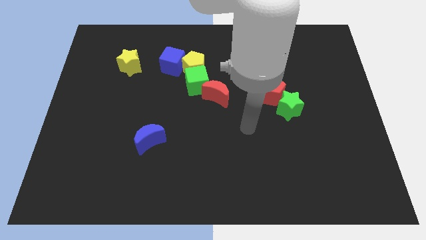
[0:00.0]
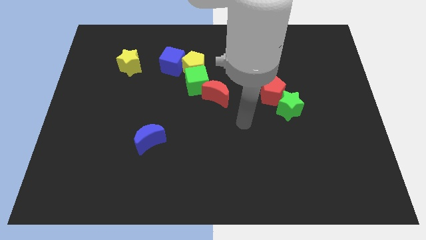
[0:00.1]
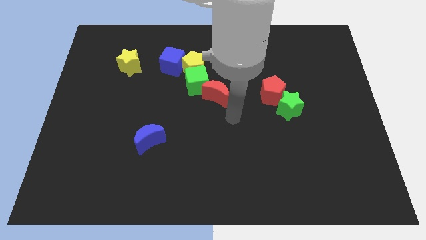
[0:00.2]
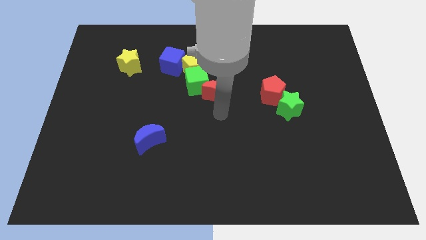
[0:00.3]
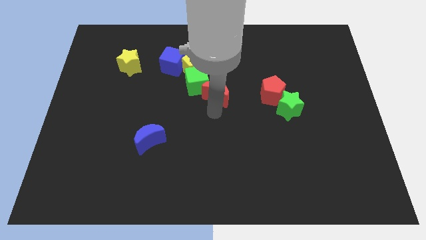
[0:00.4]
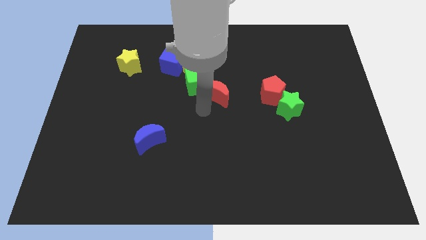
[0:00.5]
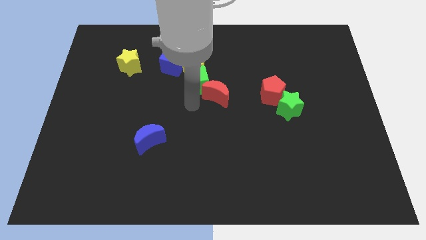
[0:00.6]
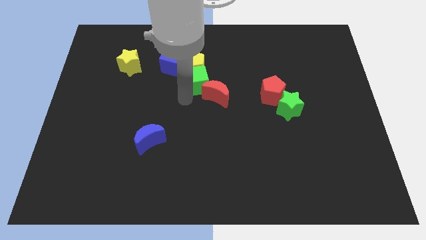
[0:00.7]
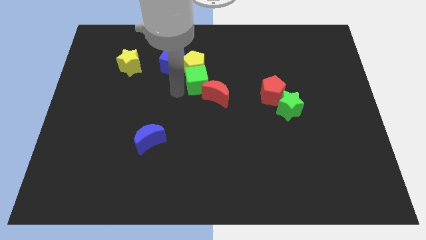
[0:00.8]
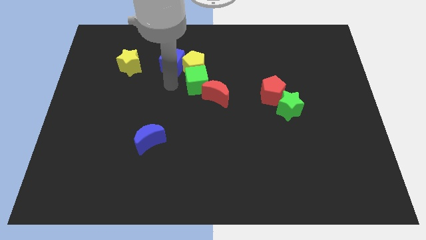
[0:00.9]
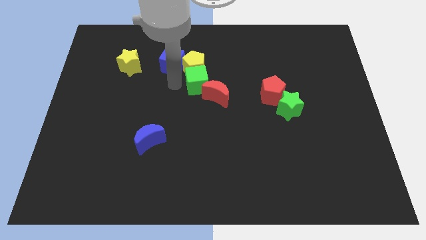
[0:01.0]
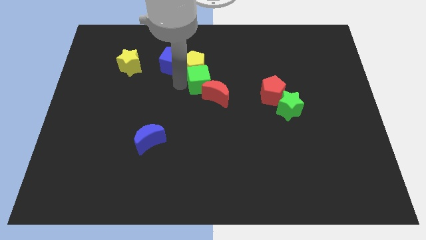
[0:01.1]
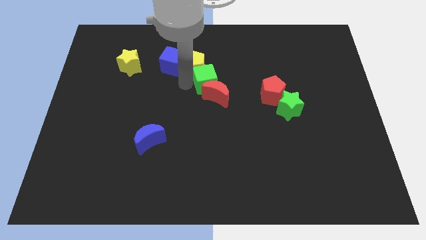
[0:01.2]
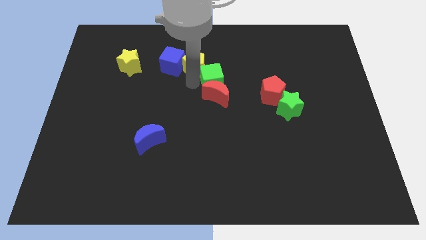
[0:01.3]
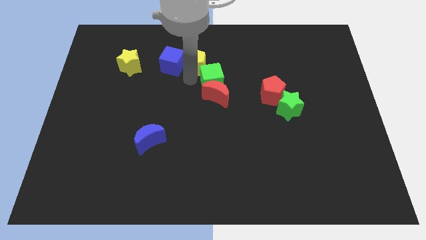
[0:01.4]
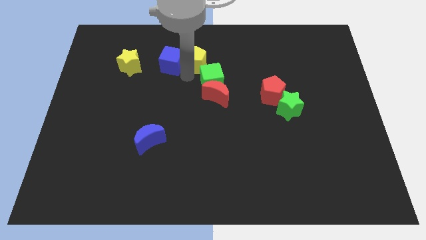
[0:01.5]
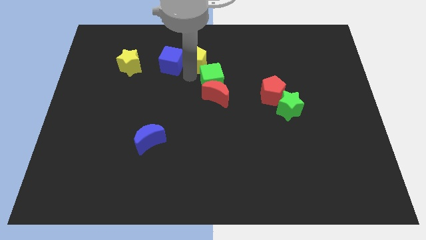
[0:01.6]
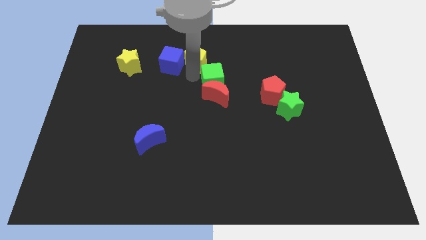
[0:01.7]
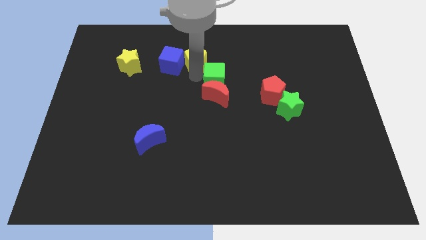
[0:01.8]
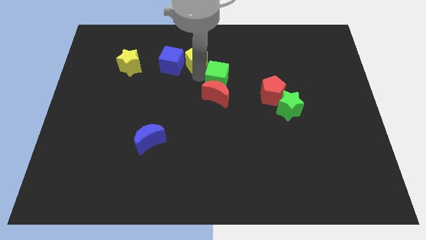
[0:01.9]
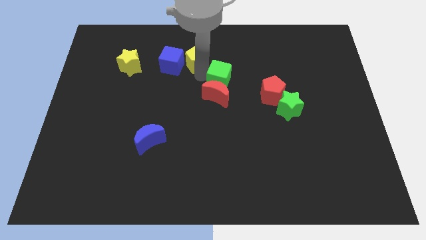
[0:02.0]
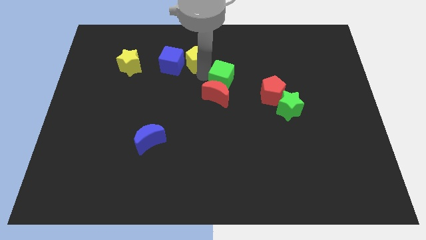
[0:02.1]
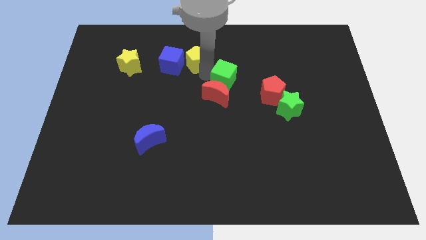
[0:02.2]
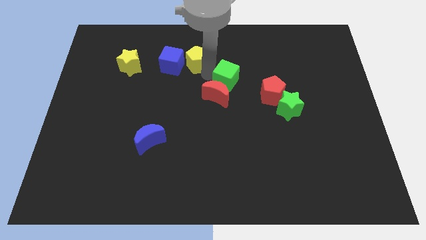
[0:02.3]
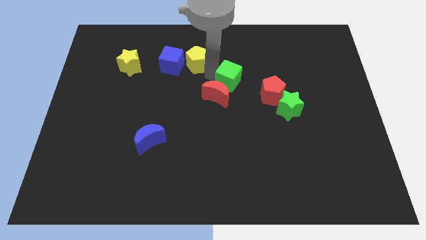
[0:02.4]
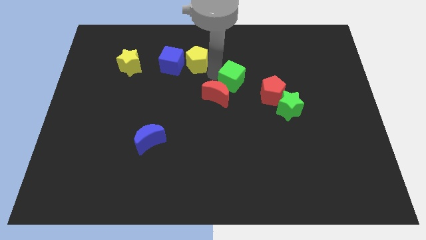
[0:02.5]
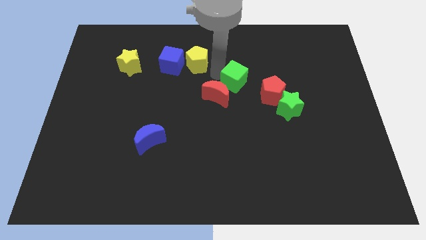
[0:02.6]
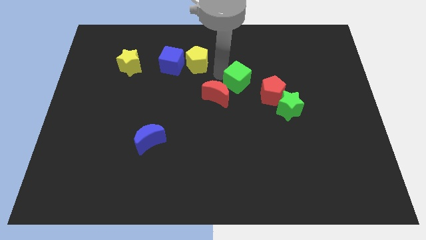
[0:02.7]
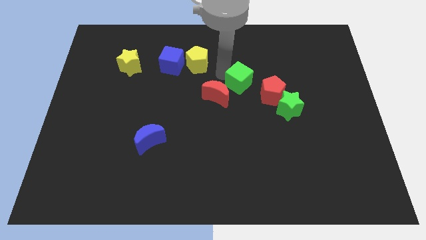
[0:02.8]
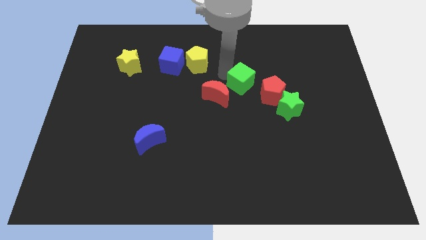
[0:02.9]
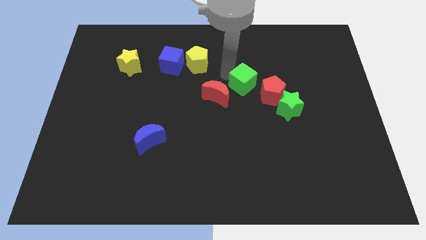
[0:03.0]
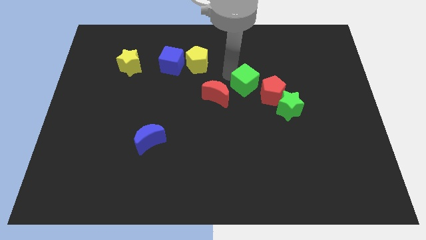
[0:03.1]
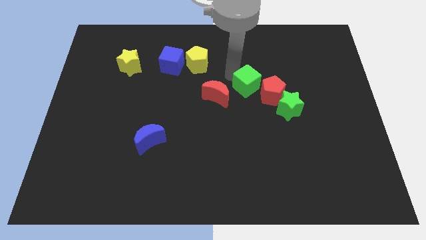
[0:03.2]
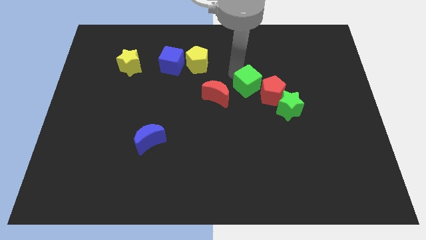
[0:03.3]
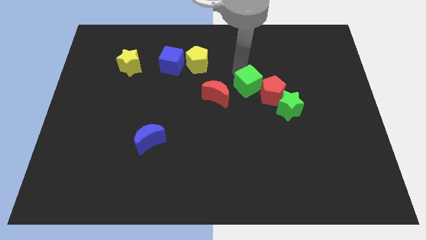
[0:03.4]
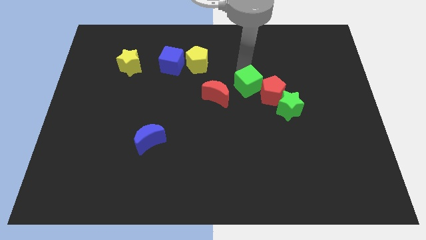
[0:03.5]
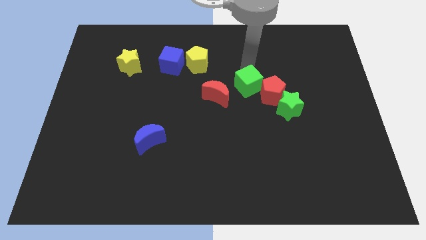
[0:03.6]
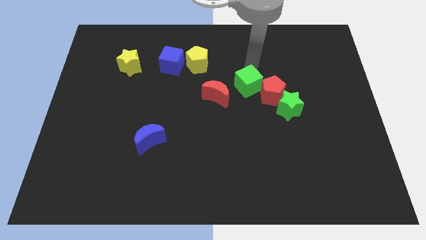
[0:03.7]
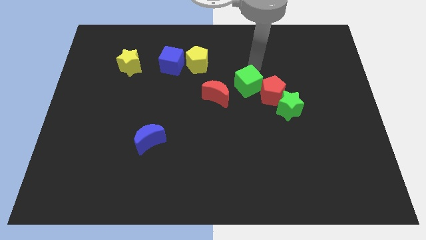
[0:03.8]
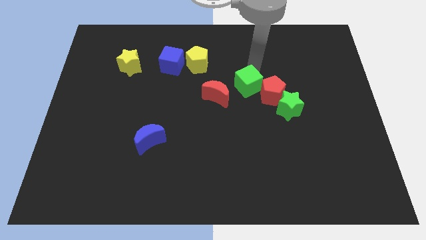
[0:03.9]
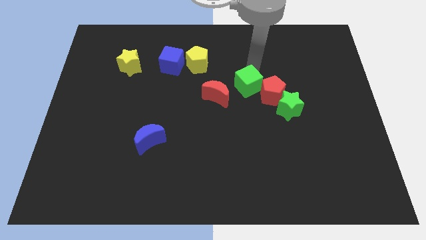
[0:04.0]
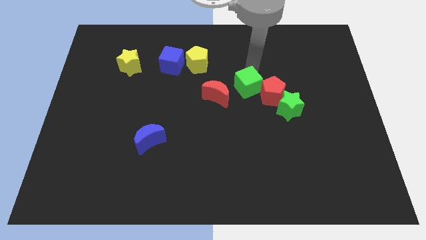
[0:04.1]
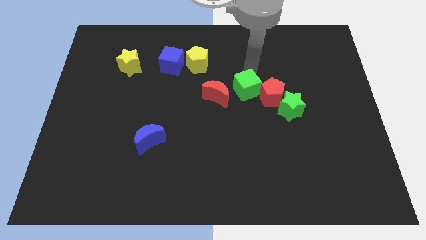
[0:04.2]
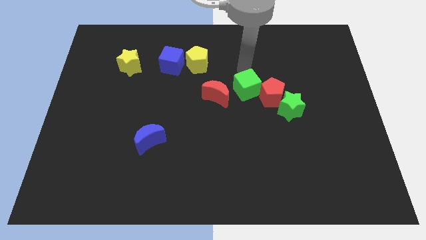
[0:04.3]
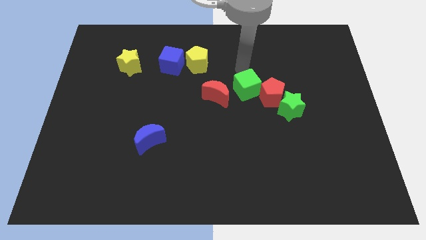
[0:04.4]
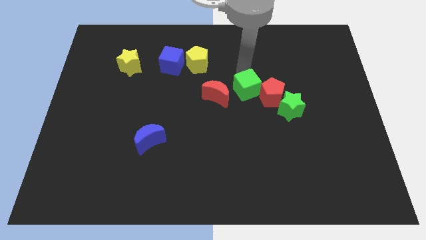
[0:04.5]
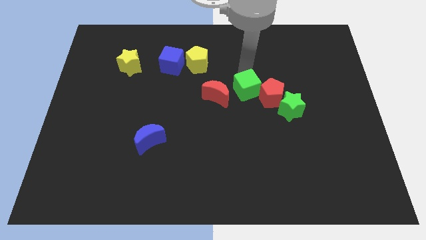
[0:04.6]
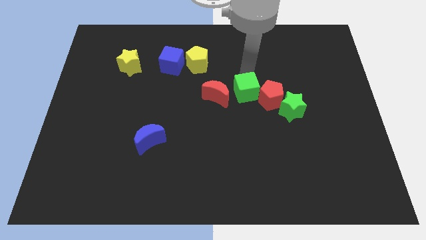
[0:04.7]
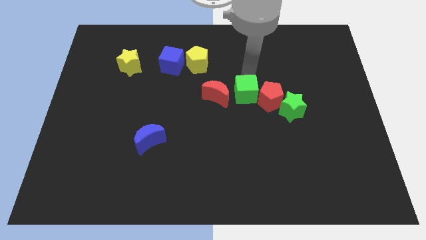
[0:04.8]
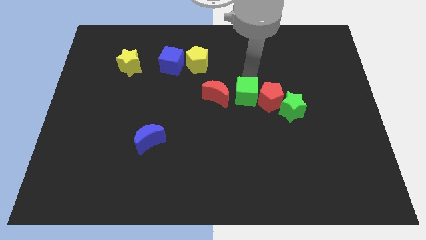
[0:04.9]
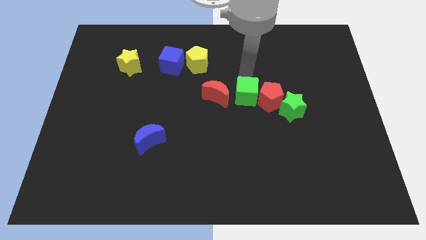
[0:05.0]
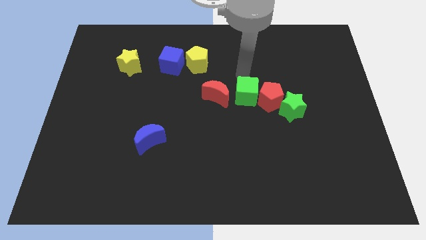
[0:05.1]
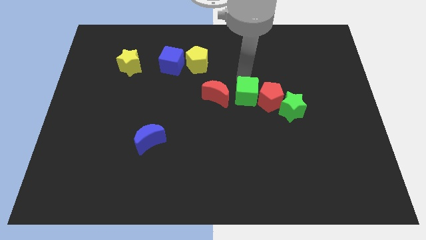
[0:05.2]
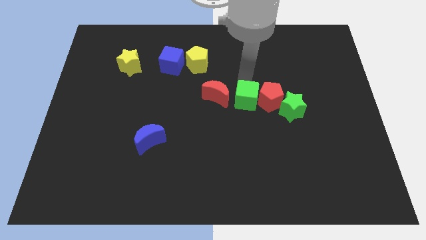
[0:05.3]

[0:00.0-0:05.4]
push the green cube diagonally down and to the left of the red pentagon

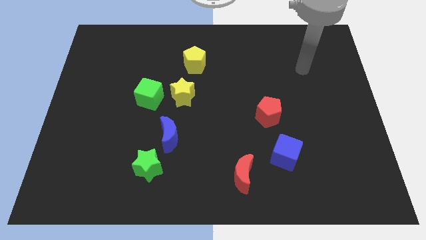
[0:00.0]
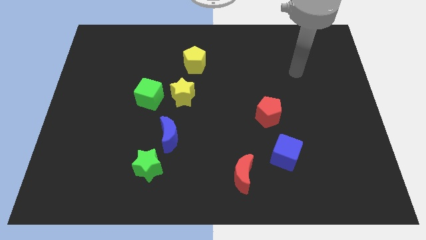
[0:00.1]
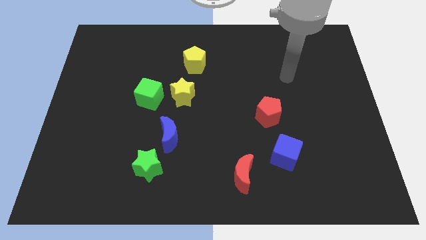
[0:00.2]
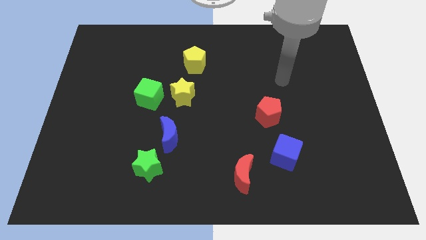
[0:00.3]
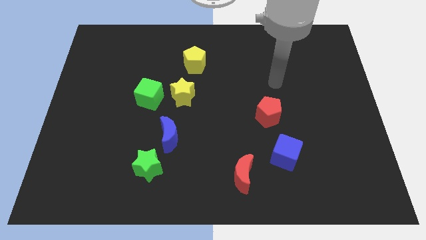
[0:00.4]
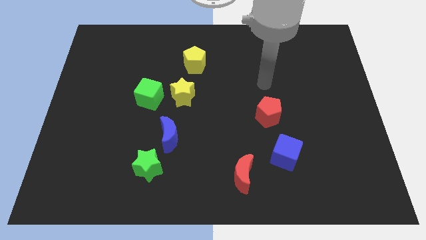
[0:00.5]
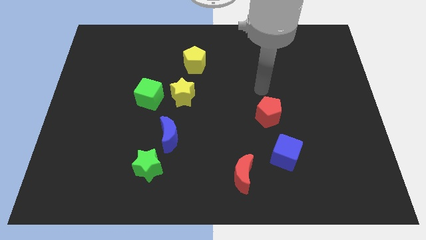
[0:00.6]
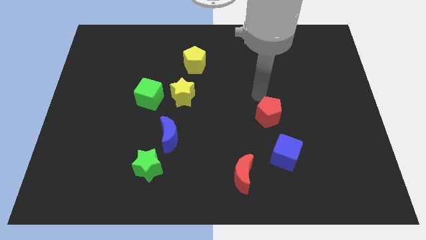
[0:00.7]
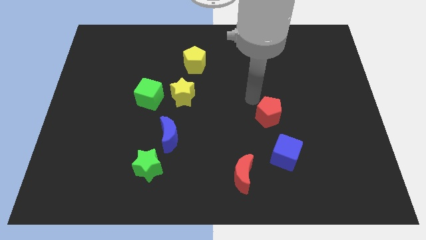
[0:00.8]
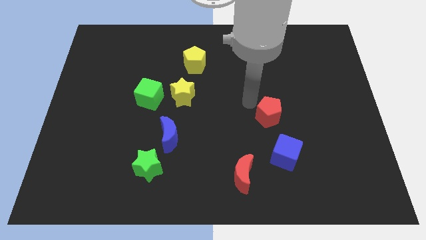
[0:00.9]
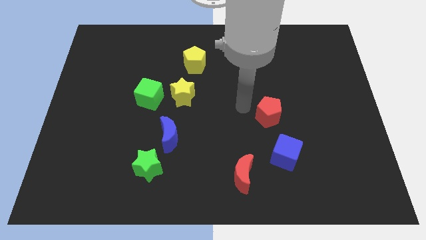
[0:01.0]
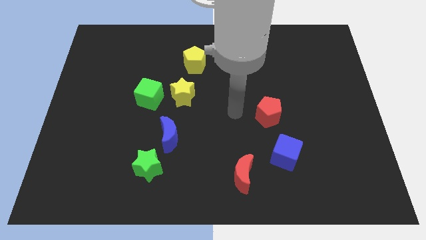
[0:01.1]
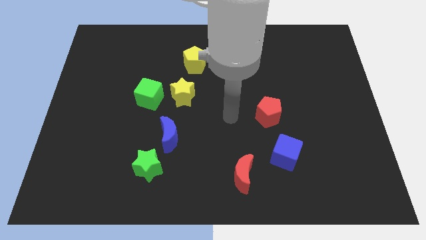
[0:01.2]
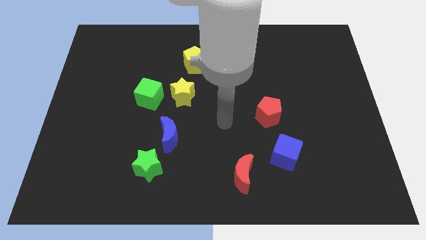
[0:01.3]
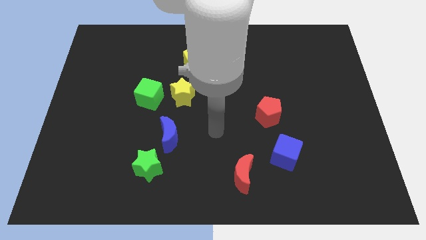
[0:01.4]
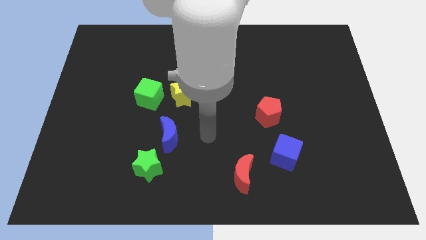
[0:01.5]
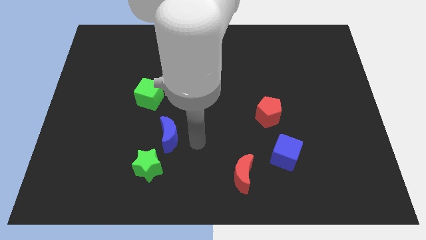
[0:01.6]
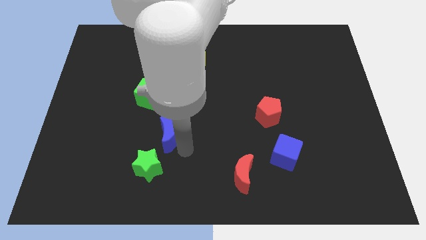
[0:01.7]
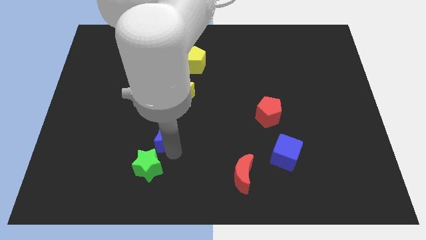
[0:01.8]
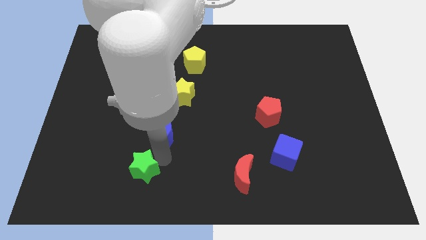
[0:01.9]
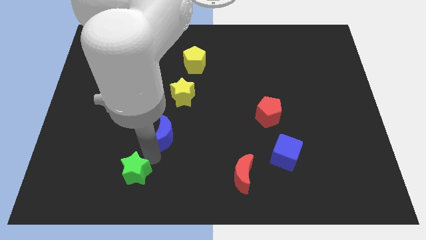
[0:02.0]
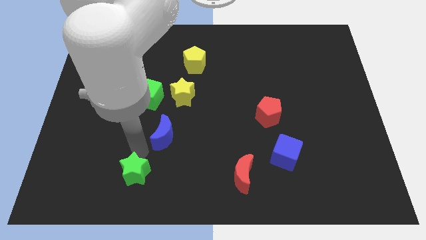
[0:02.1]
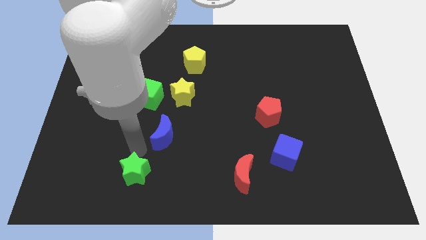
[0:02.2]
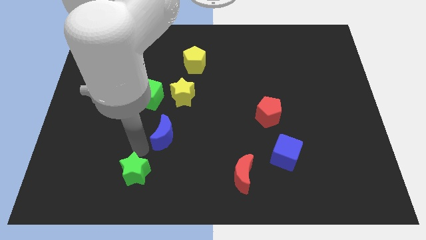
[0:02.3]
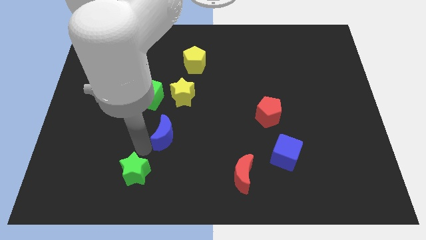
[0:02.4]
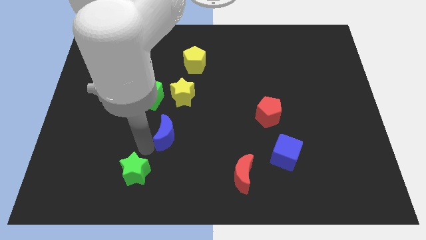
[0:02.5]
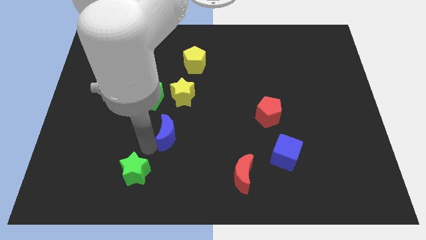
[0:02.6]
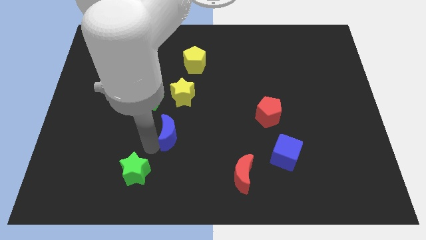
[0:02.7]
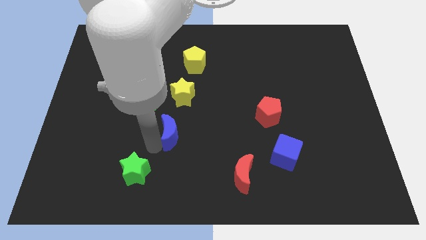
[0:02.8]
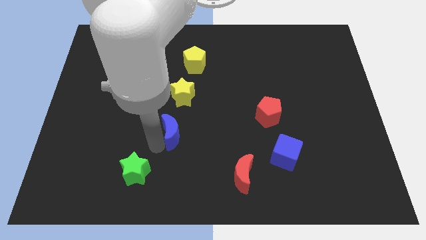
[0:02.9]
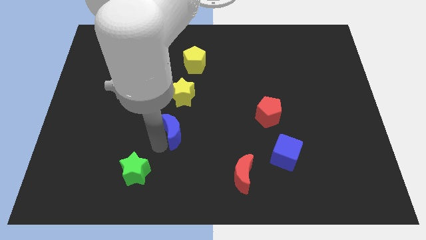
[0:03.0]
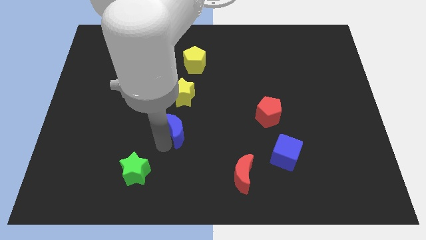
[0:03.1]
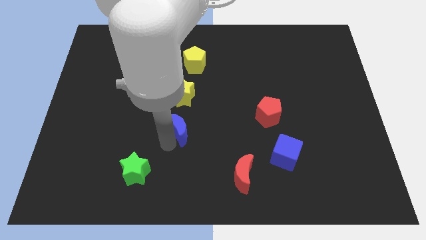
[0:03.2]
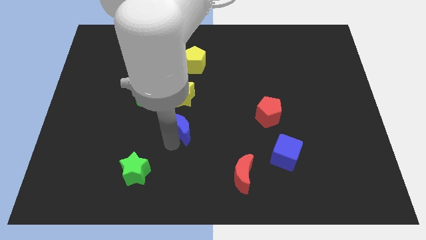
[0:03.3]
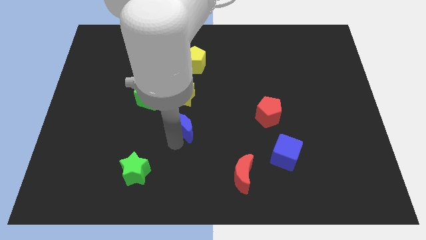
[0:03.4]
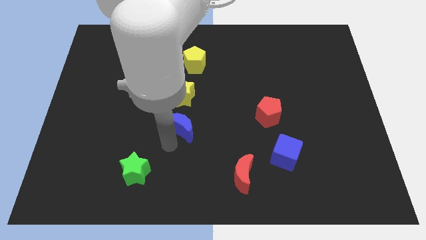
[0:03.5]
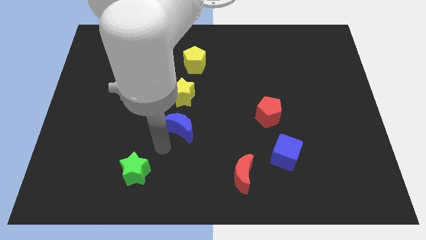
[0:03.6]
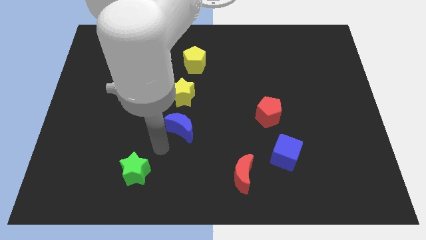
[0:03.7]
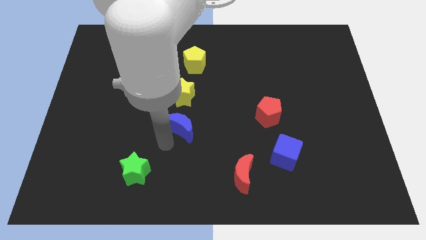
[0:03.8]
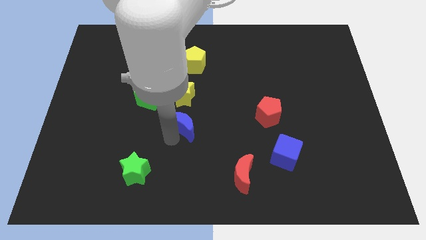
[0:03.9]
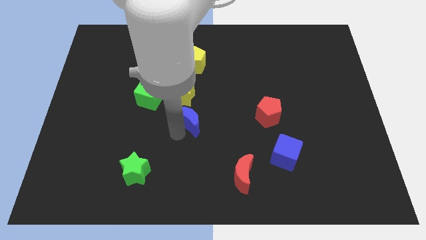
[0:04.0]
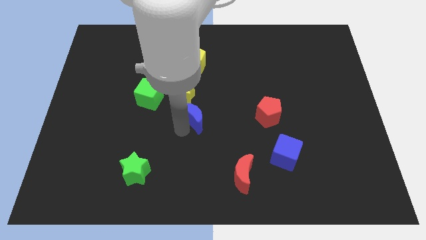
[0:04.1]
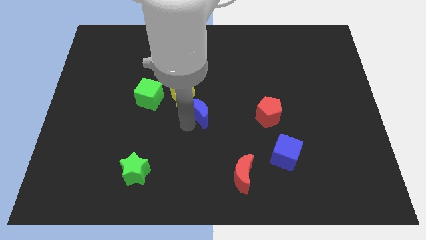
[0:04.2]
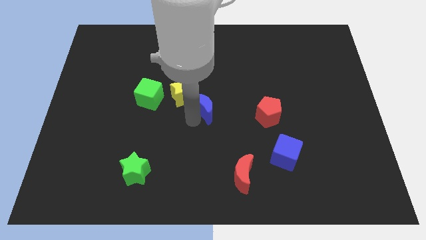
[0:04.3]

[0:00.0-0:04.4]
put the blue moon to the right side of the yellow star
